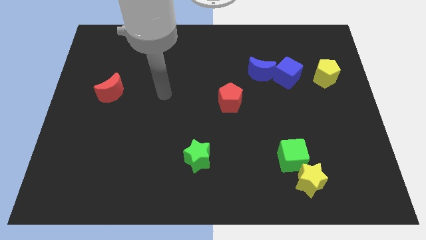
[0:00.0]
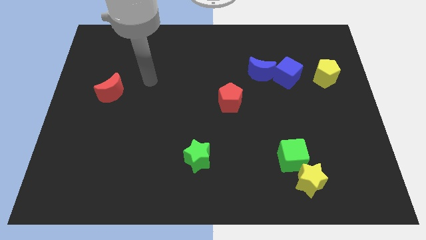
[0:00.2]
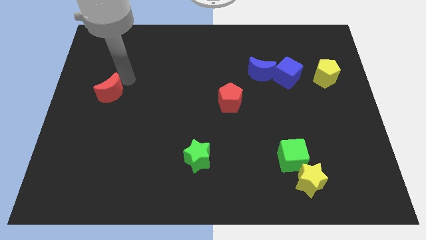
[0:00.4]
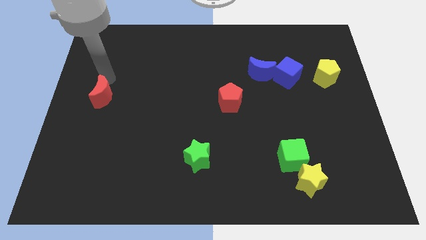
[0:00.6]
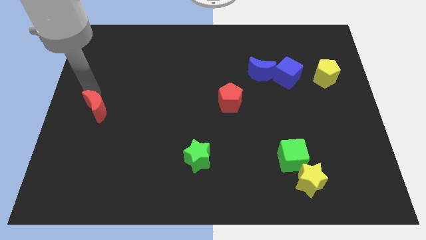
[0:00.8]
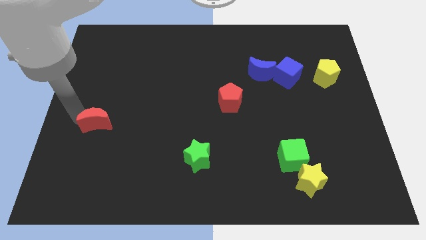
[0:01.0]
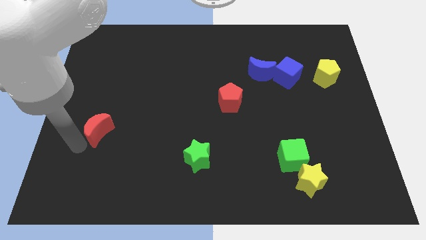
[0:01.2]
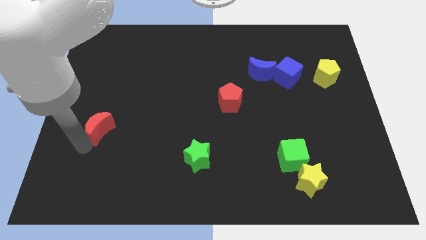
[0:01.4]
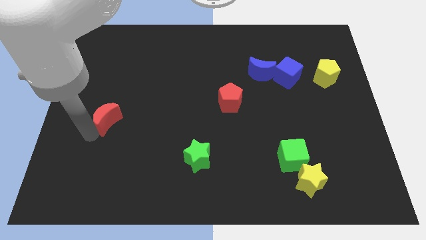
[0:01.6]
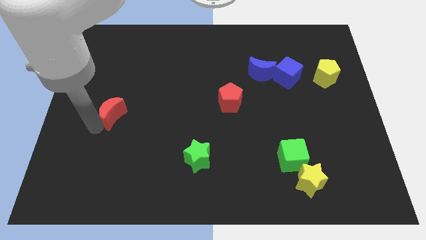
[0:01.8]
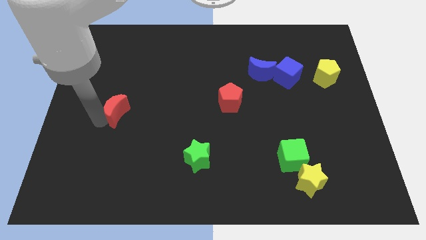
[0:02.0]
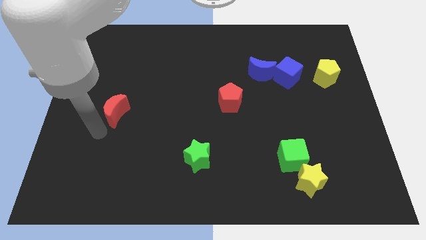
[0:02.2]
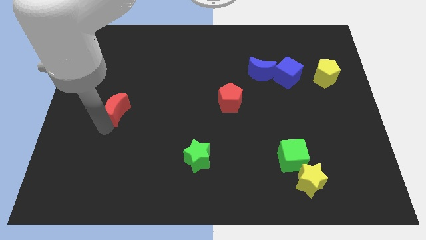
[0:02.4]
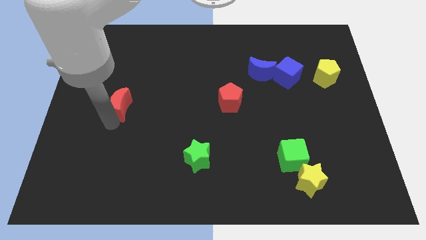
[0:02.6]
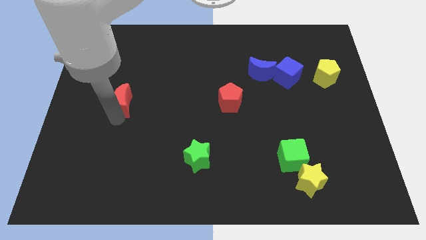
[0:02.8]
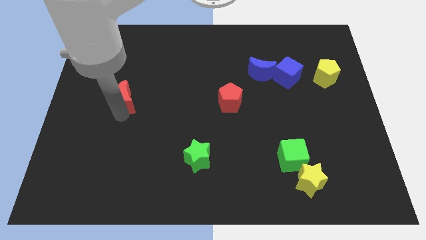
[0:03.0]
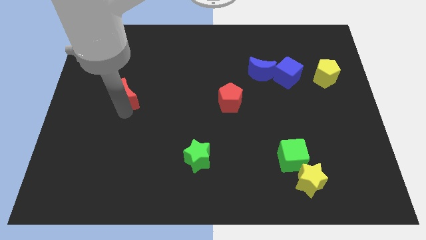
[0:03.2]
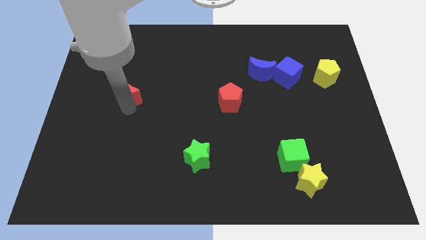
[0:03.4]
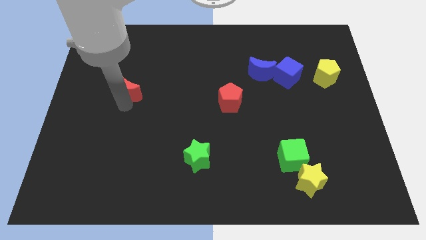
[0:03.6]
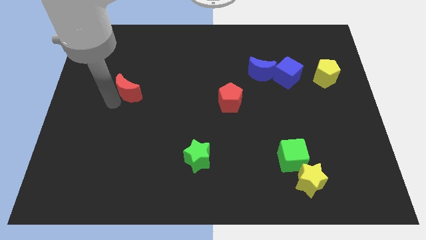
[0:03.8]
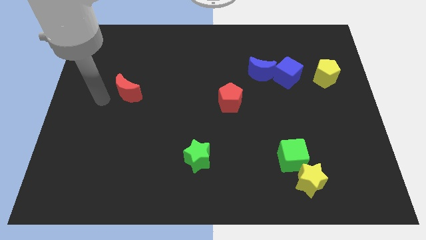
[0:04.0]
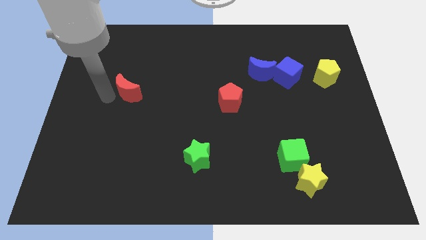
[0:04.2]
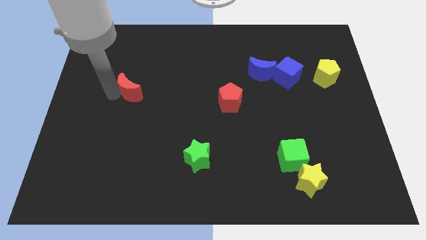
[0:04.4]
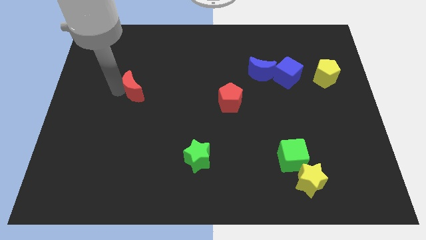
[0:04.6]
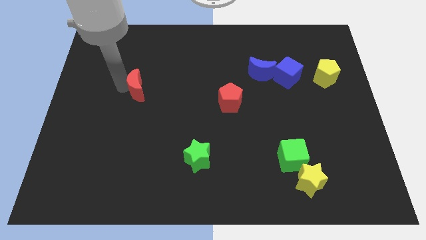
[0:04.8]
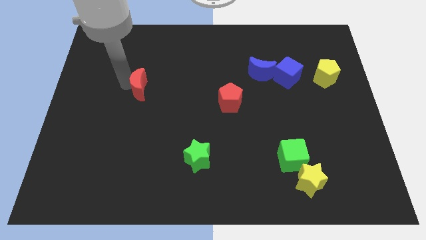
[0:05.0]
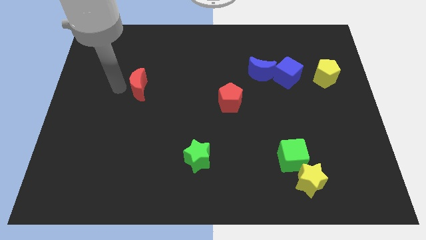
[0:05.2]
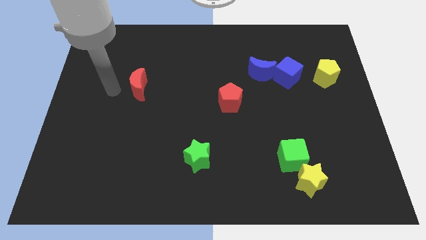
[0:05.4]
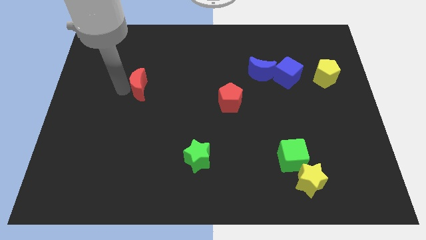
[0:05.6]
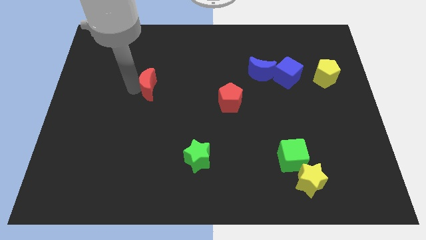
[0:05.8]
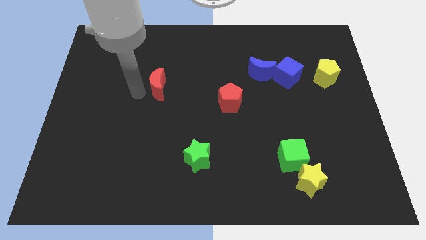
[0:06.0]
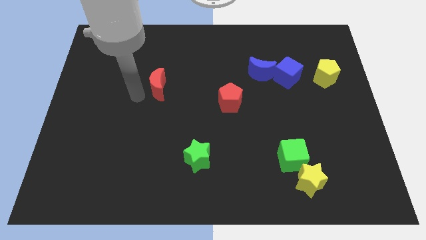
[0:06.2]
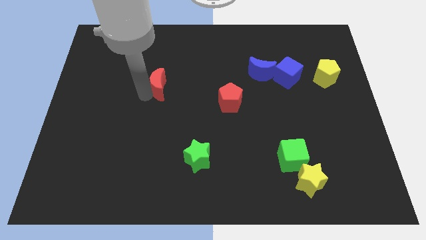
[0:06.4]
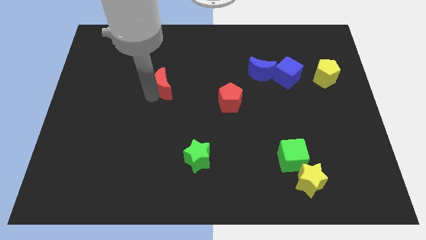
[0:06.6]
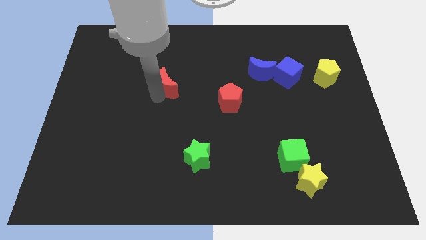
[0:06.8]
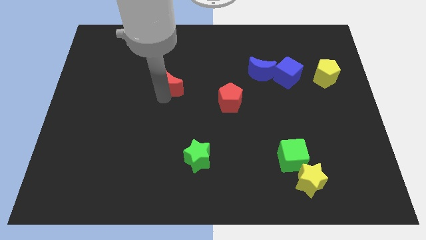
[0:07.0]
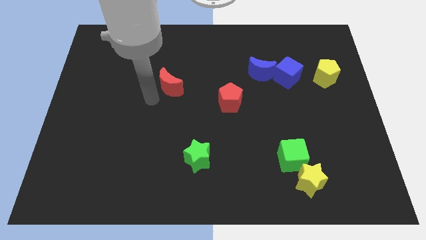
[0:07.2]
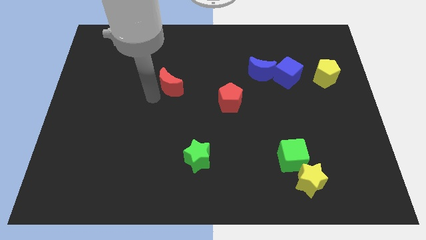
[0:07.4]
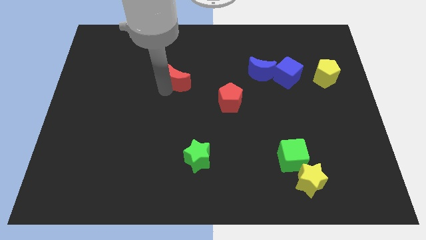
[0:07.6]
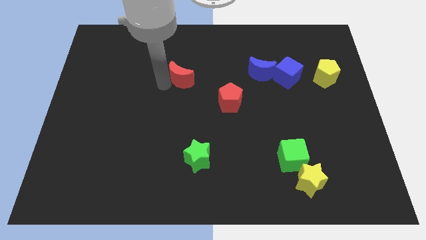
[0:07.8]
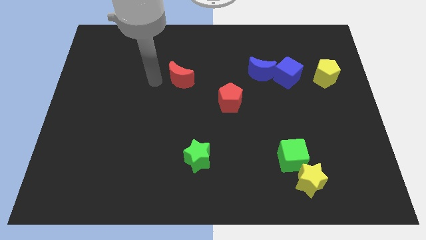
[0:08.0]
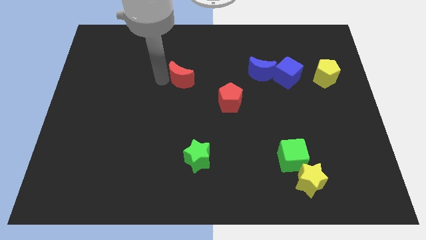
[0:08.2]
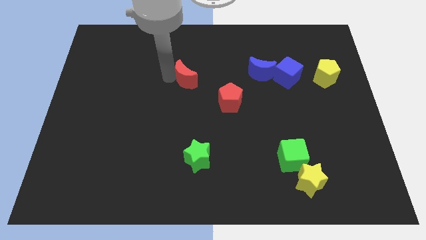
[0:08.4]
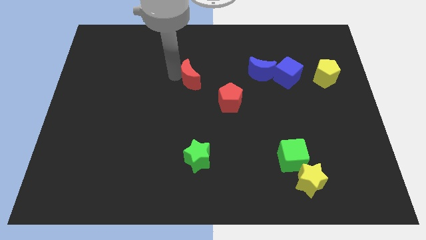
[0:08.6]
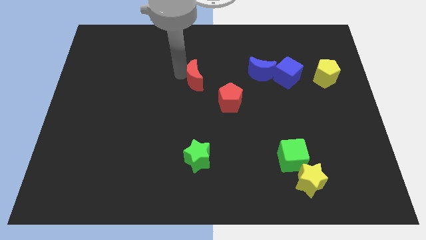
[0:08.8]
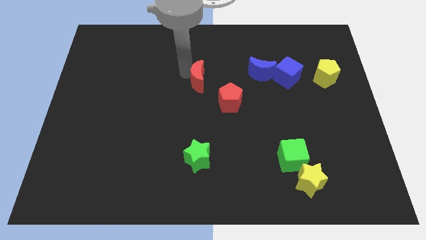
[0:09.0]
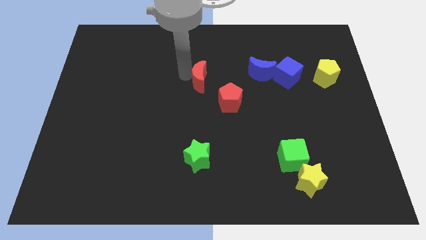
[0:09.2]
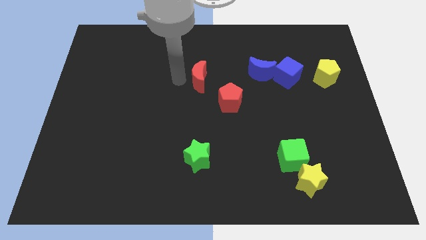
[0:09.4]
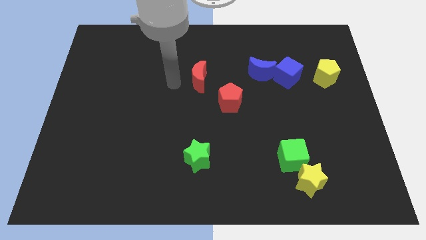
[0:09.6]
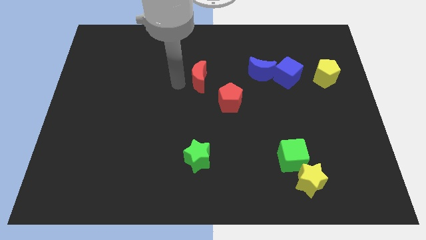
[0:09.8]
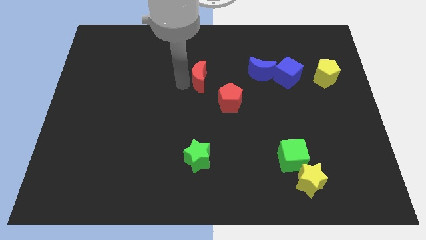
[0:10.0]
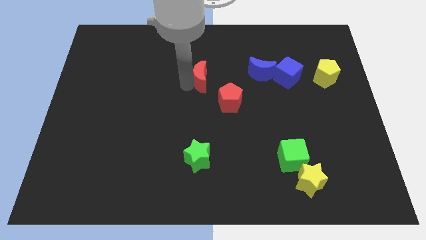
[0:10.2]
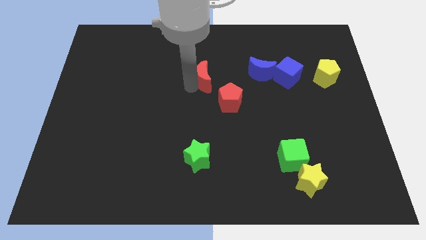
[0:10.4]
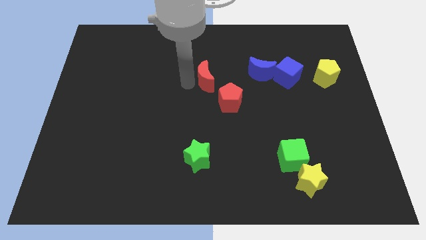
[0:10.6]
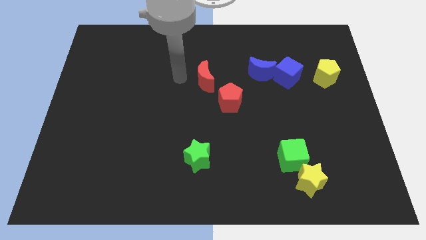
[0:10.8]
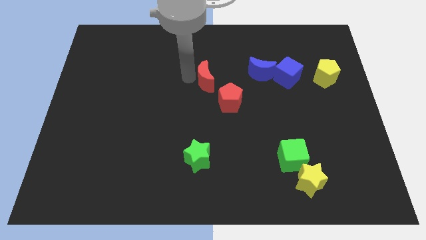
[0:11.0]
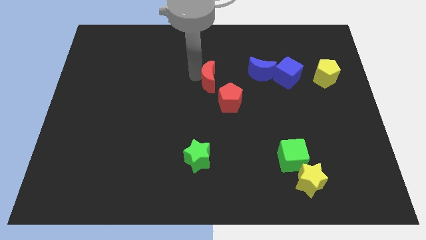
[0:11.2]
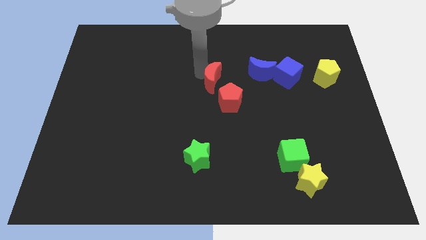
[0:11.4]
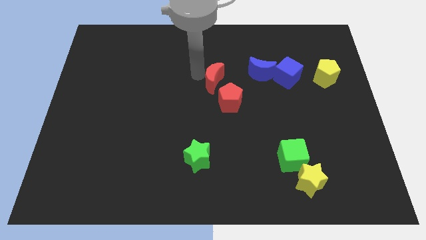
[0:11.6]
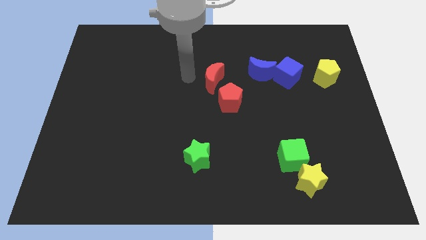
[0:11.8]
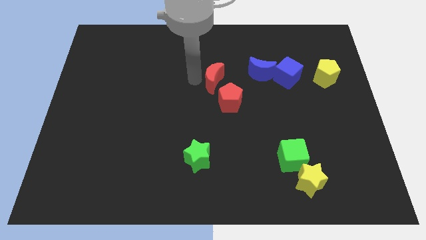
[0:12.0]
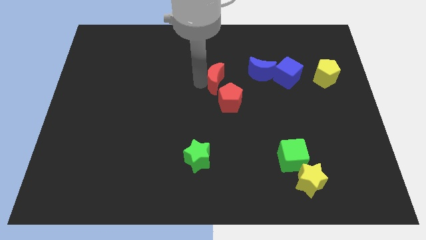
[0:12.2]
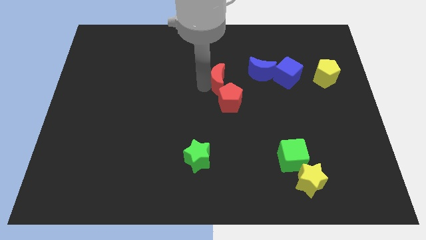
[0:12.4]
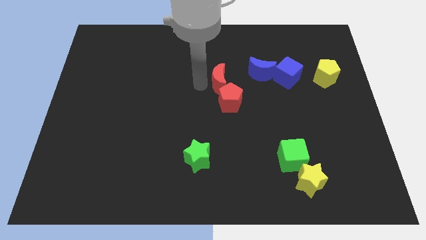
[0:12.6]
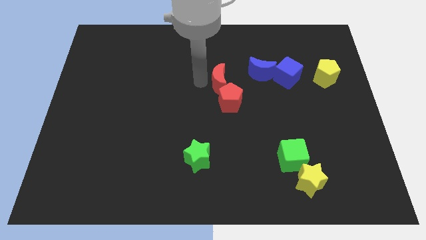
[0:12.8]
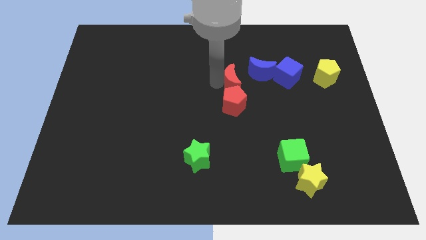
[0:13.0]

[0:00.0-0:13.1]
slide the red moon to the top right of the red pentagon

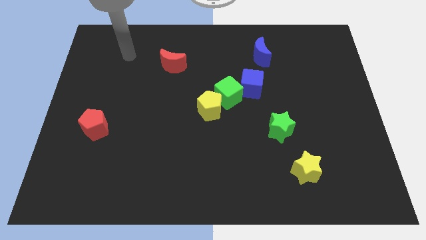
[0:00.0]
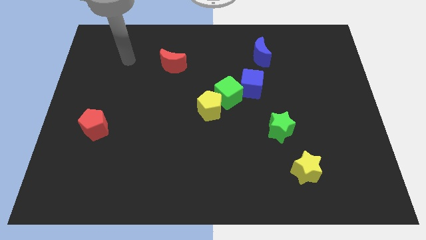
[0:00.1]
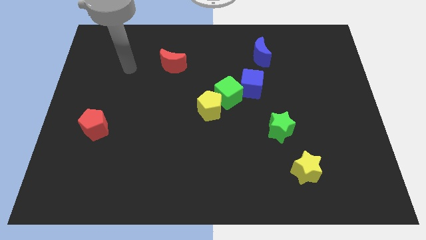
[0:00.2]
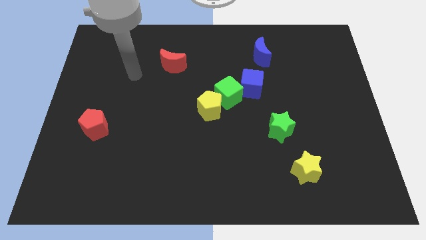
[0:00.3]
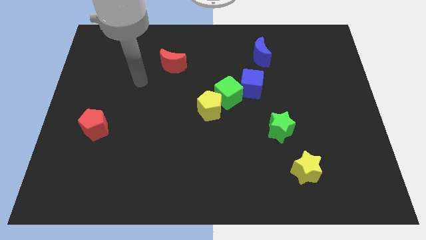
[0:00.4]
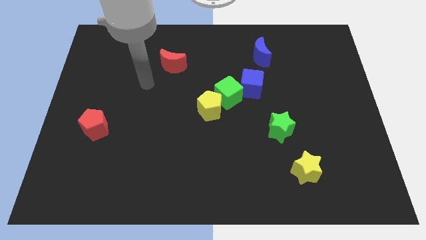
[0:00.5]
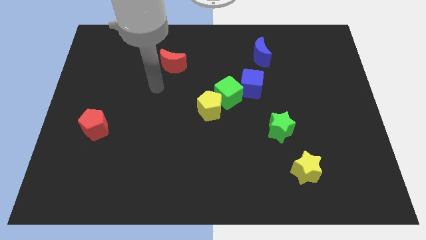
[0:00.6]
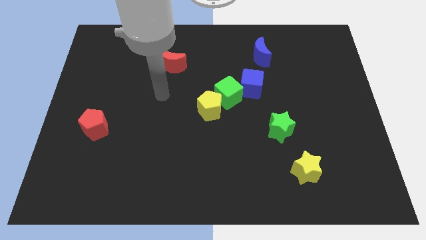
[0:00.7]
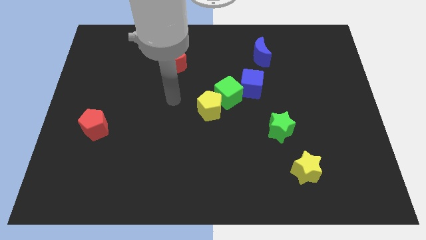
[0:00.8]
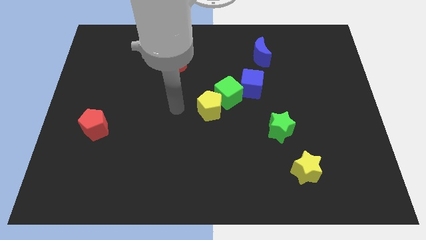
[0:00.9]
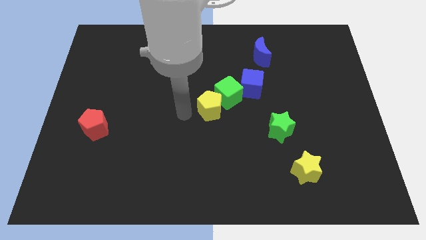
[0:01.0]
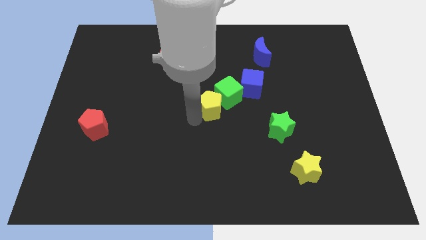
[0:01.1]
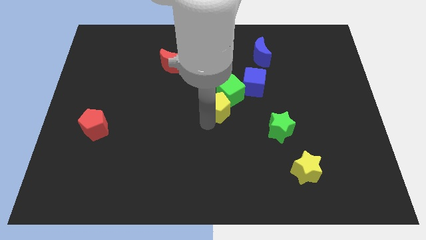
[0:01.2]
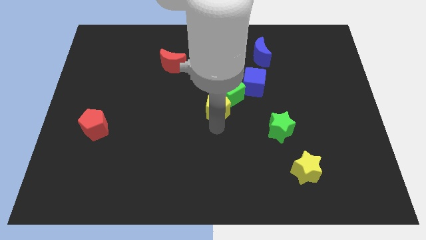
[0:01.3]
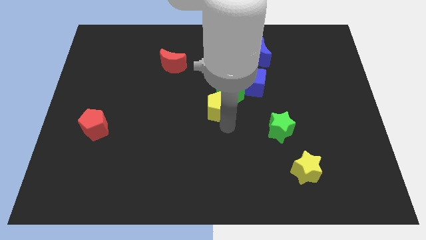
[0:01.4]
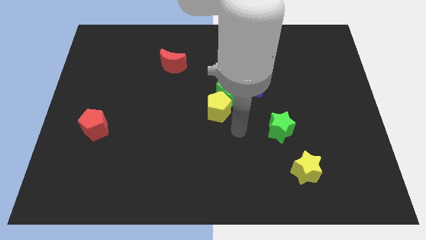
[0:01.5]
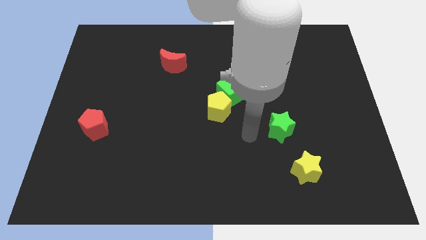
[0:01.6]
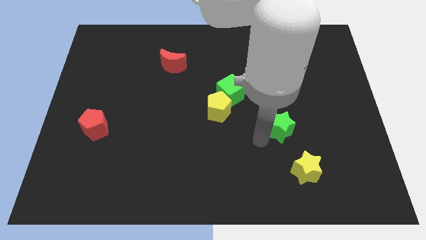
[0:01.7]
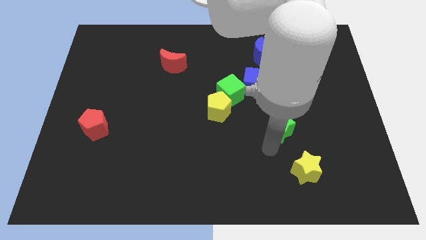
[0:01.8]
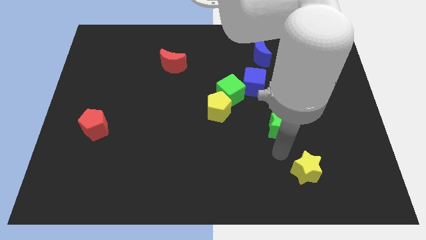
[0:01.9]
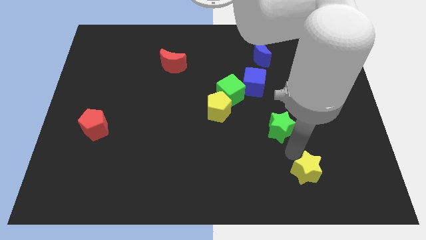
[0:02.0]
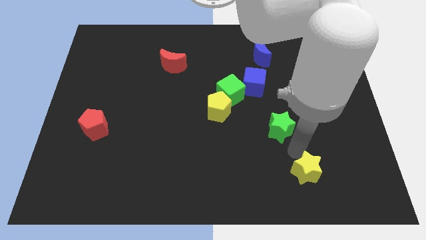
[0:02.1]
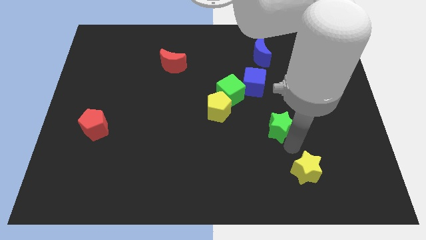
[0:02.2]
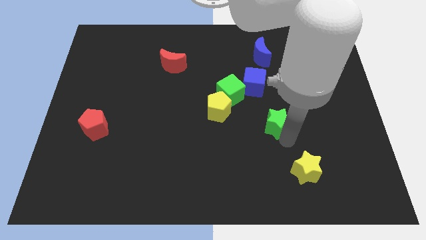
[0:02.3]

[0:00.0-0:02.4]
move the green star to the right side of the yellow pentagon
